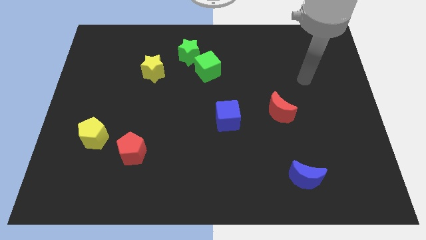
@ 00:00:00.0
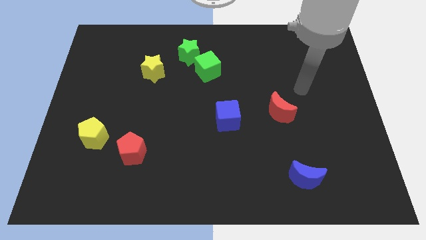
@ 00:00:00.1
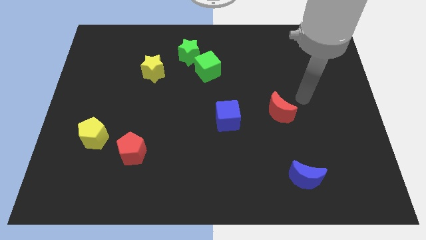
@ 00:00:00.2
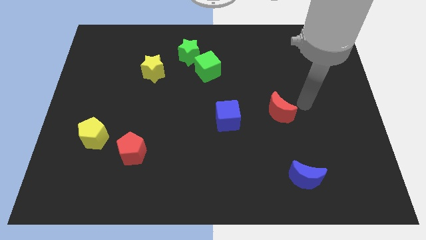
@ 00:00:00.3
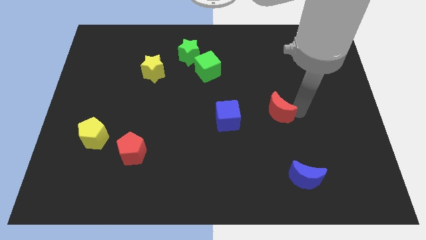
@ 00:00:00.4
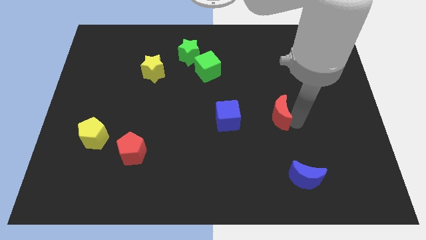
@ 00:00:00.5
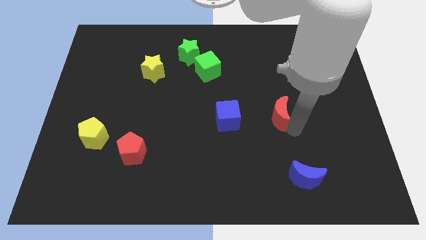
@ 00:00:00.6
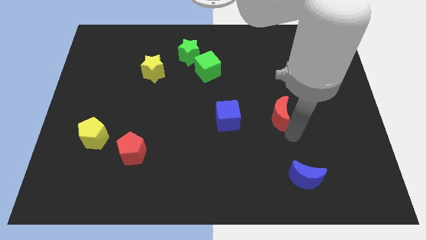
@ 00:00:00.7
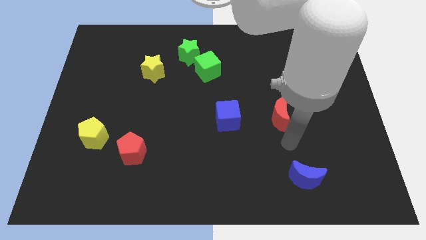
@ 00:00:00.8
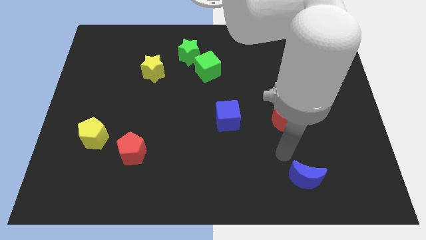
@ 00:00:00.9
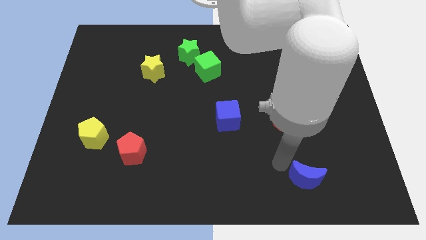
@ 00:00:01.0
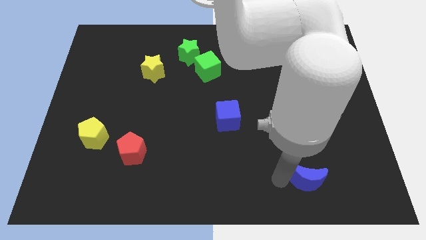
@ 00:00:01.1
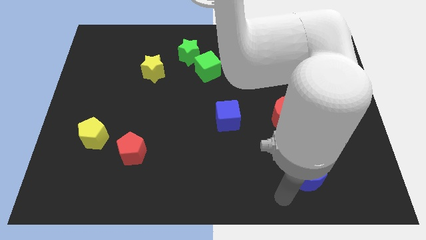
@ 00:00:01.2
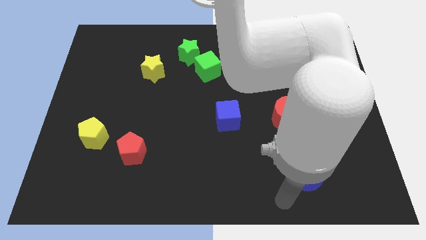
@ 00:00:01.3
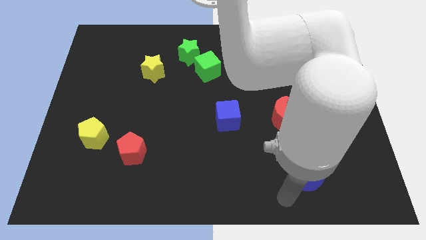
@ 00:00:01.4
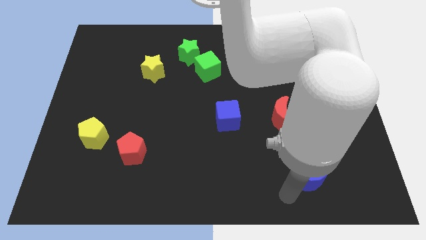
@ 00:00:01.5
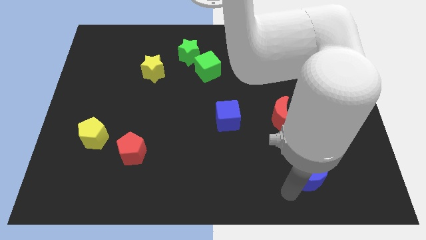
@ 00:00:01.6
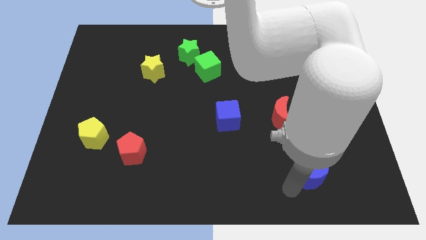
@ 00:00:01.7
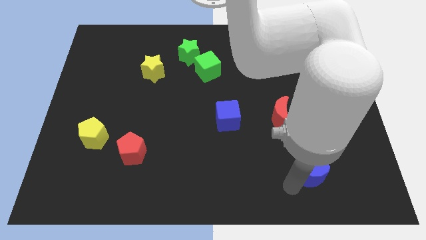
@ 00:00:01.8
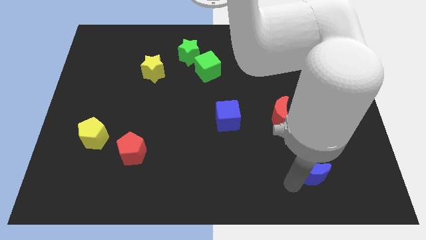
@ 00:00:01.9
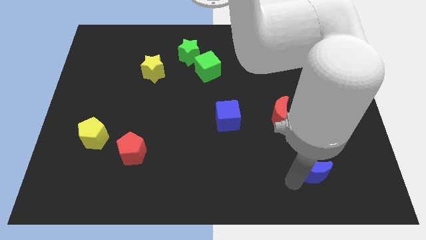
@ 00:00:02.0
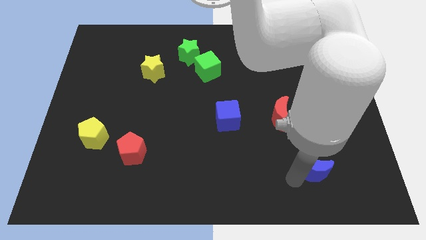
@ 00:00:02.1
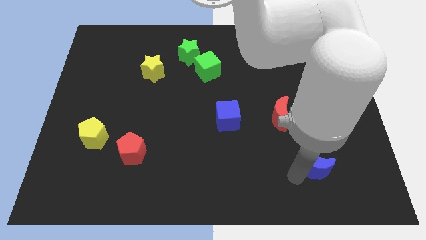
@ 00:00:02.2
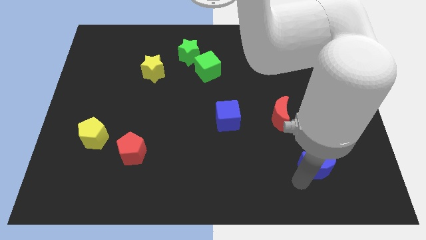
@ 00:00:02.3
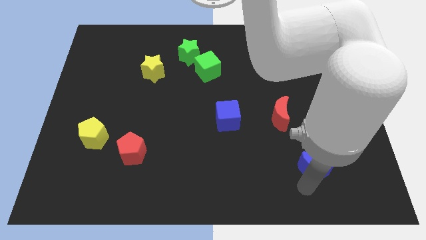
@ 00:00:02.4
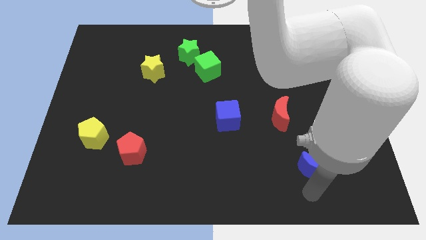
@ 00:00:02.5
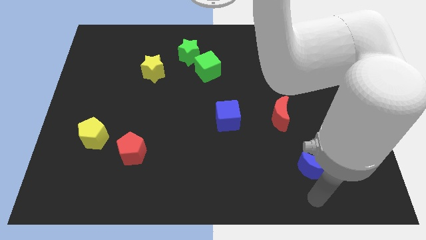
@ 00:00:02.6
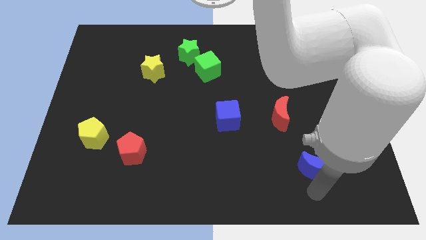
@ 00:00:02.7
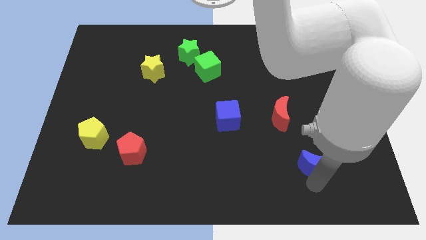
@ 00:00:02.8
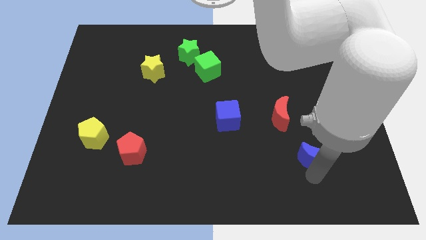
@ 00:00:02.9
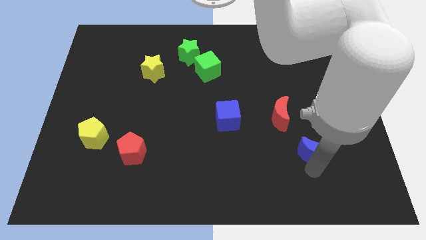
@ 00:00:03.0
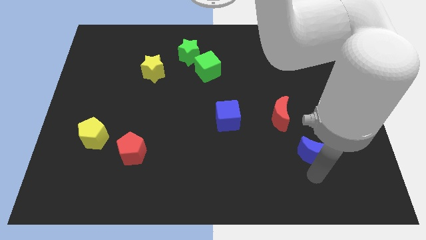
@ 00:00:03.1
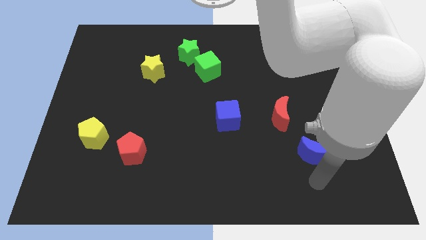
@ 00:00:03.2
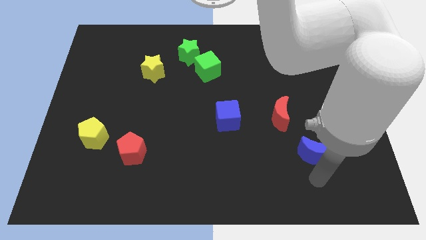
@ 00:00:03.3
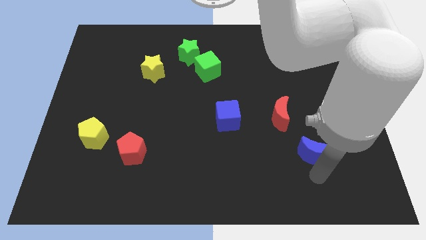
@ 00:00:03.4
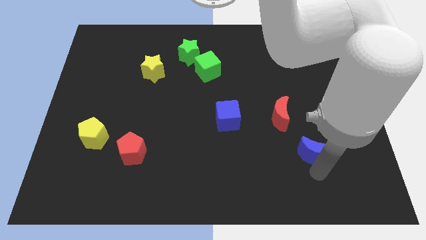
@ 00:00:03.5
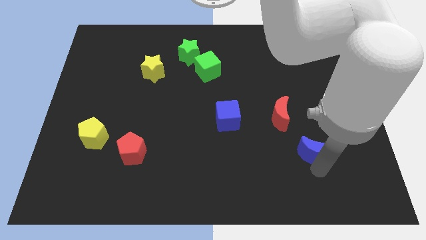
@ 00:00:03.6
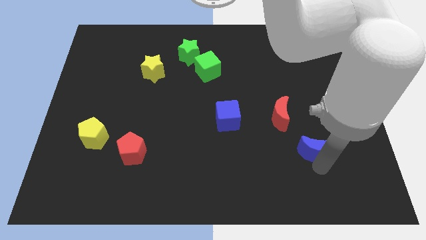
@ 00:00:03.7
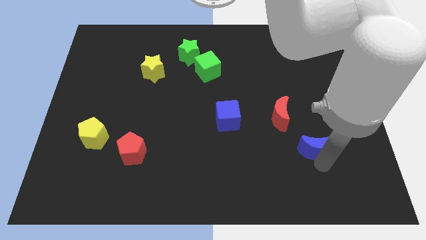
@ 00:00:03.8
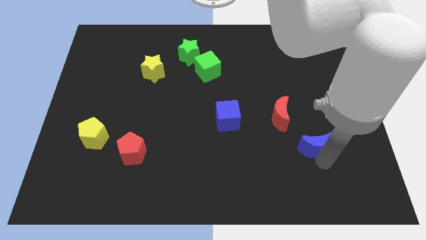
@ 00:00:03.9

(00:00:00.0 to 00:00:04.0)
slightly push the blue moon upwards

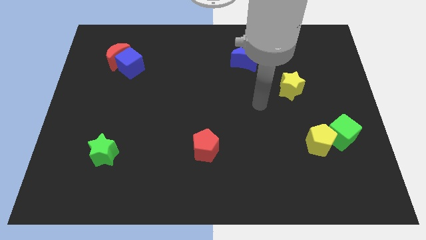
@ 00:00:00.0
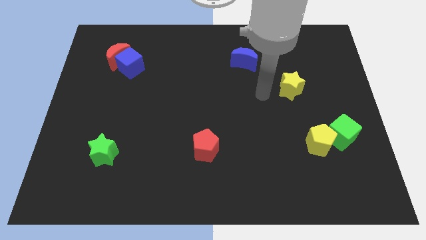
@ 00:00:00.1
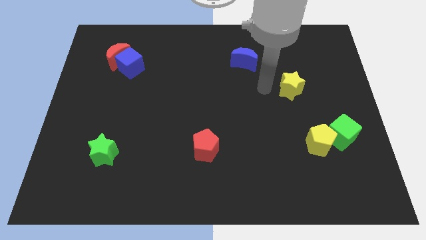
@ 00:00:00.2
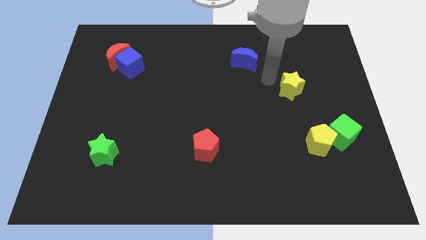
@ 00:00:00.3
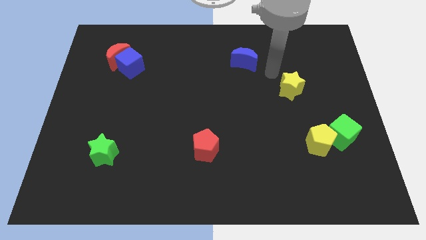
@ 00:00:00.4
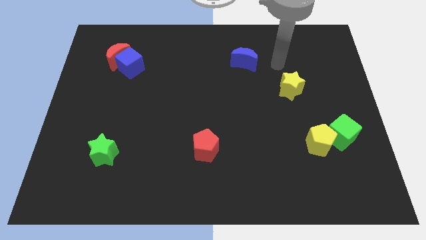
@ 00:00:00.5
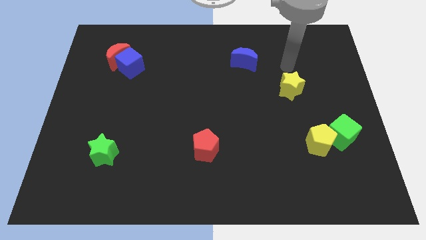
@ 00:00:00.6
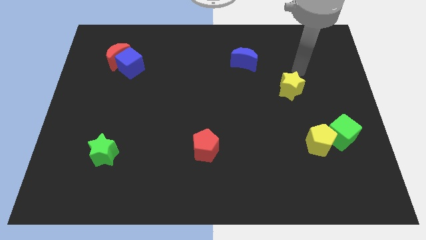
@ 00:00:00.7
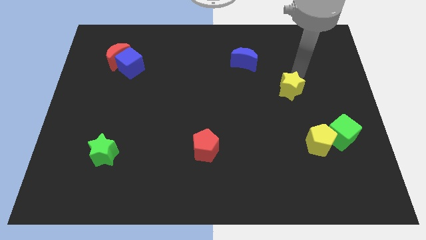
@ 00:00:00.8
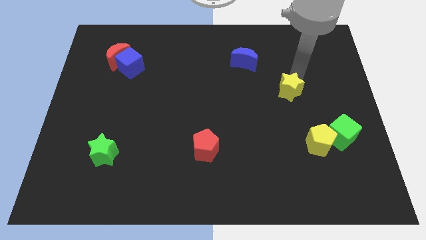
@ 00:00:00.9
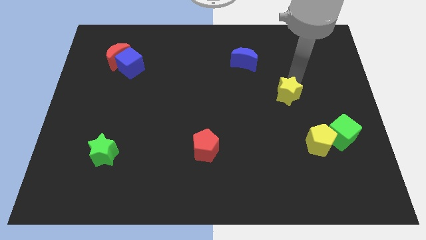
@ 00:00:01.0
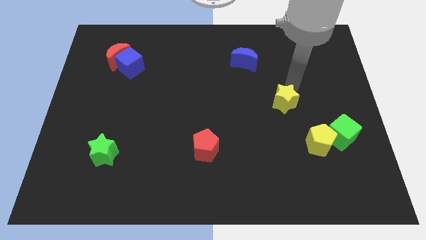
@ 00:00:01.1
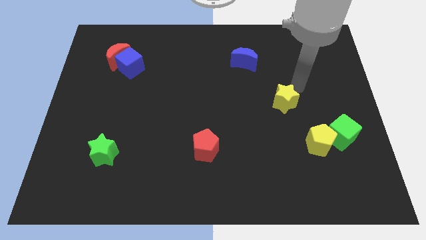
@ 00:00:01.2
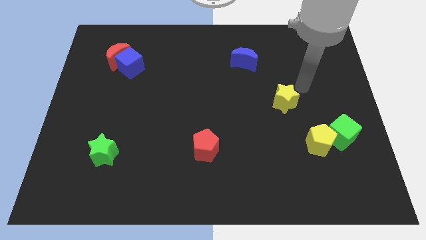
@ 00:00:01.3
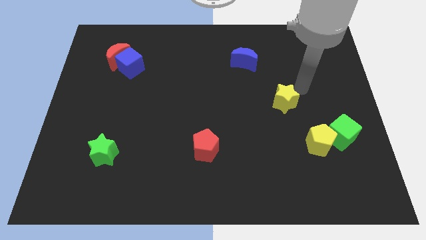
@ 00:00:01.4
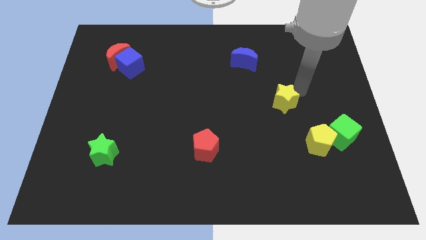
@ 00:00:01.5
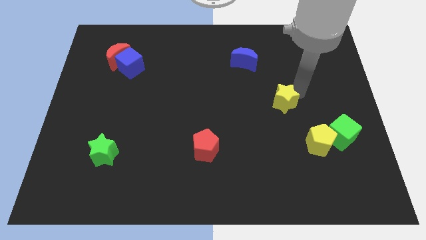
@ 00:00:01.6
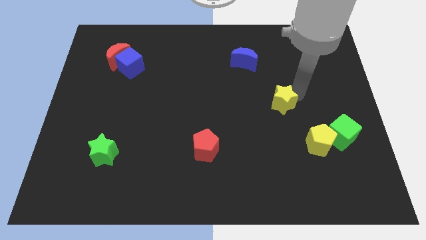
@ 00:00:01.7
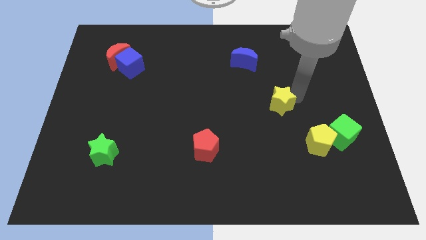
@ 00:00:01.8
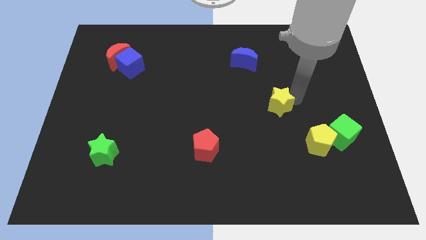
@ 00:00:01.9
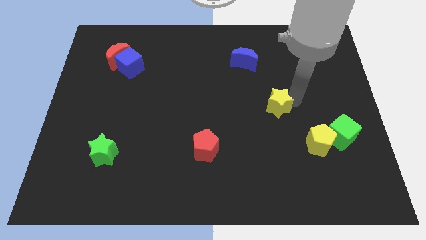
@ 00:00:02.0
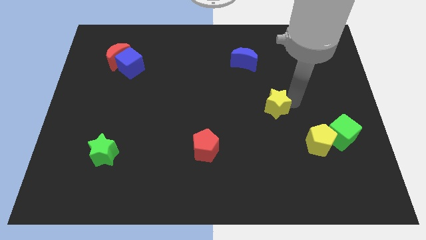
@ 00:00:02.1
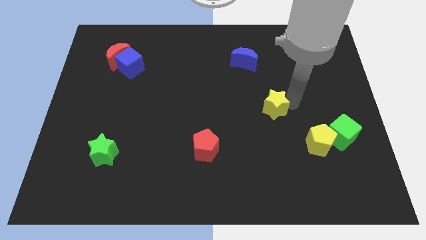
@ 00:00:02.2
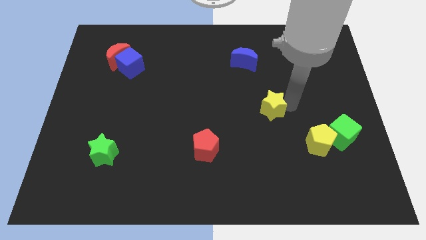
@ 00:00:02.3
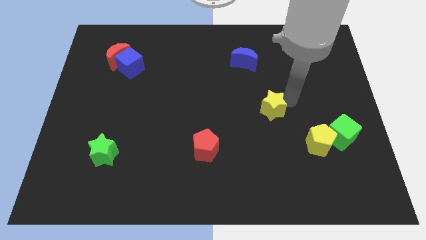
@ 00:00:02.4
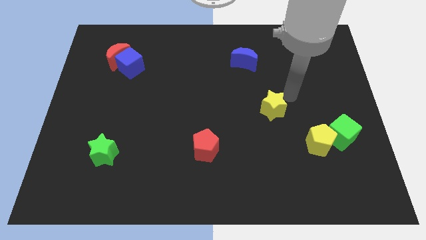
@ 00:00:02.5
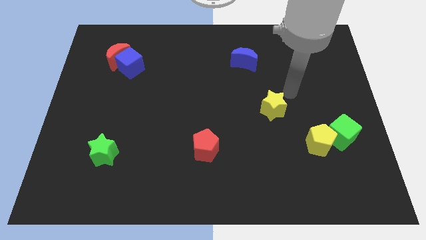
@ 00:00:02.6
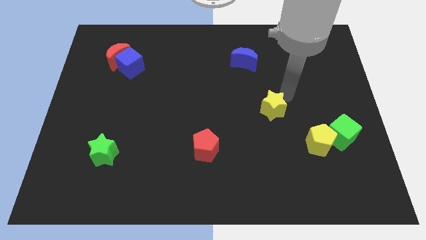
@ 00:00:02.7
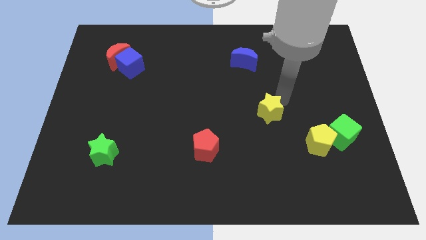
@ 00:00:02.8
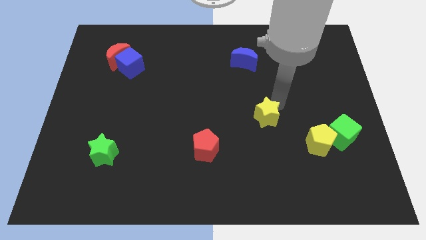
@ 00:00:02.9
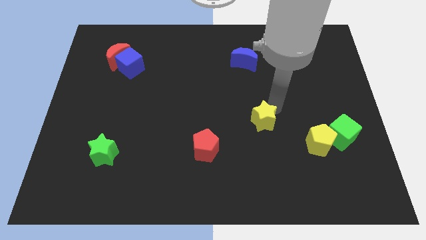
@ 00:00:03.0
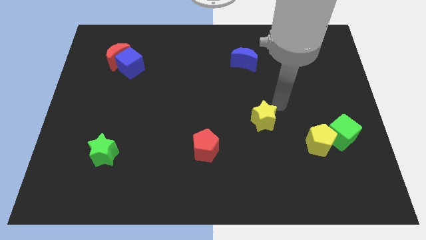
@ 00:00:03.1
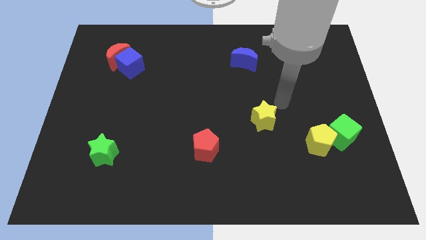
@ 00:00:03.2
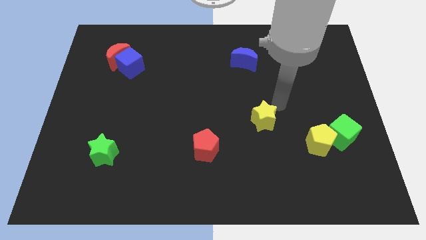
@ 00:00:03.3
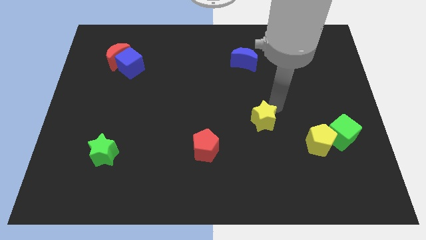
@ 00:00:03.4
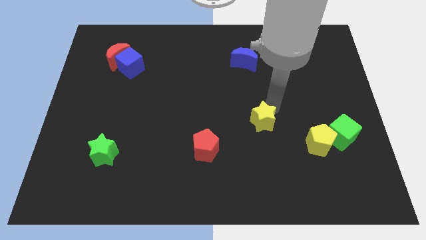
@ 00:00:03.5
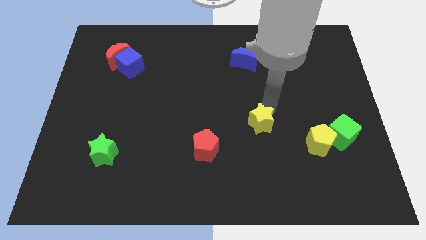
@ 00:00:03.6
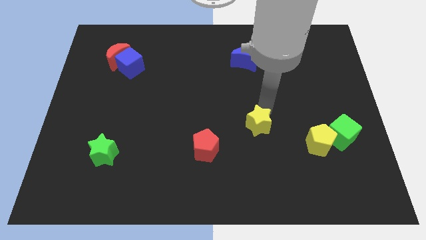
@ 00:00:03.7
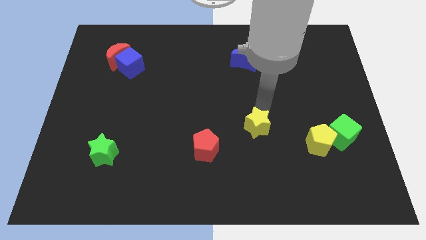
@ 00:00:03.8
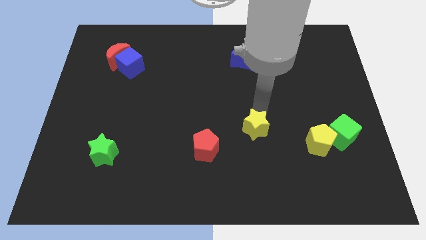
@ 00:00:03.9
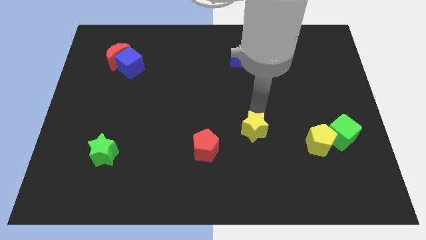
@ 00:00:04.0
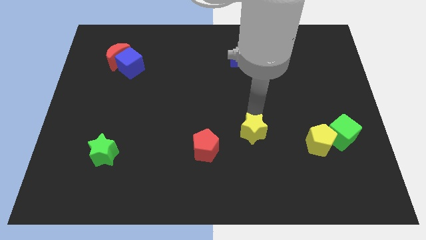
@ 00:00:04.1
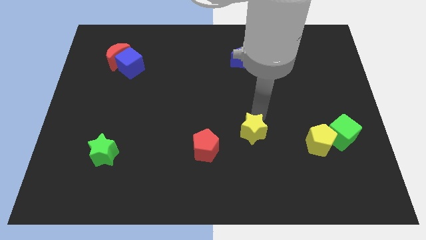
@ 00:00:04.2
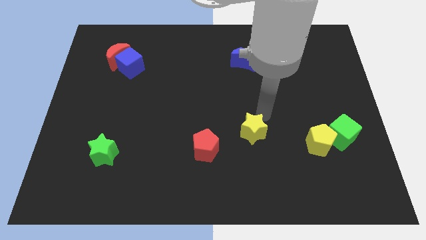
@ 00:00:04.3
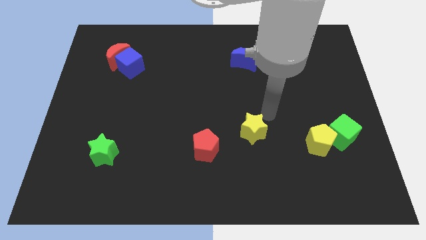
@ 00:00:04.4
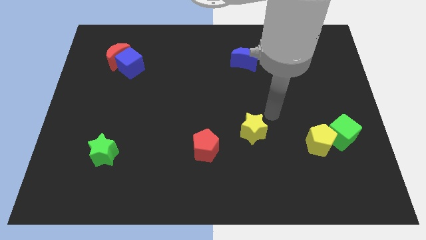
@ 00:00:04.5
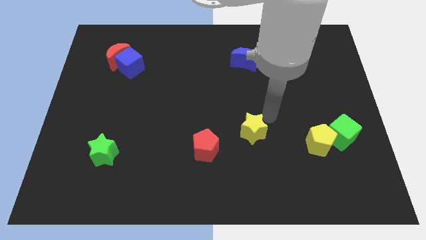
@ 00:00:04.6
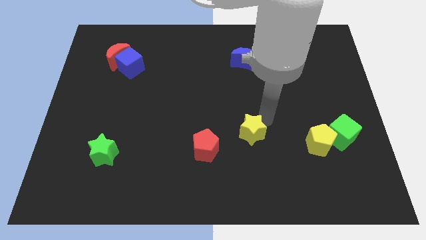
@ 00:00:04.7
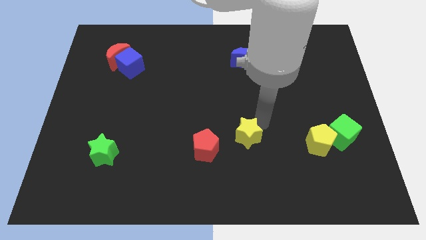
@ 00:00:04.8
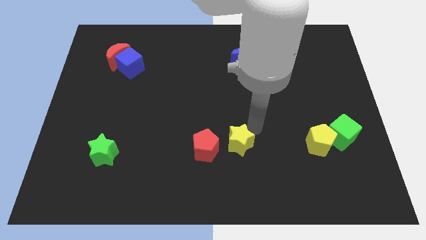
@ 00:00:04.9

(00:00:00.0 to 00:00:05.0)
slide the yellow star diagonally downwards and to the left
